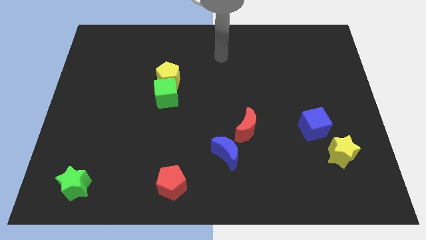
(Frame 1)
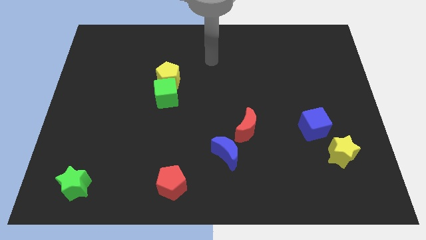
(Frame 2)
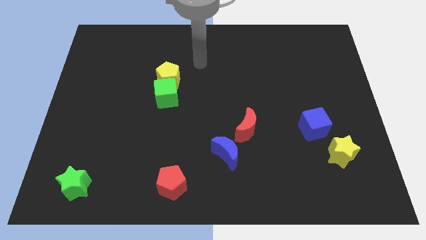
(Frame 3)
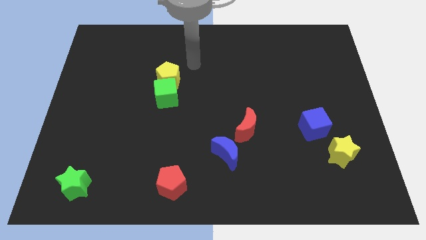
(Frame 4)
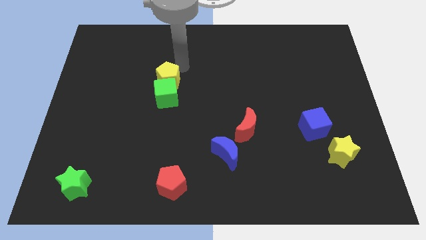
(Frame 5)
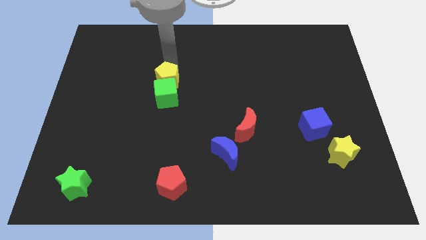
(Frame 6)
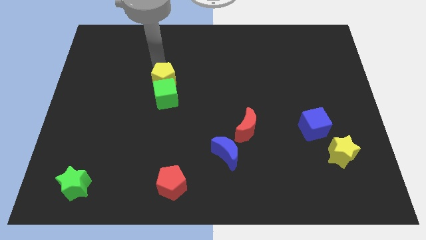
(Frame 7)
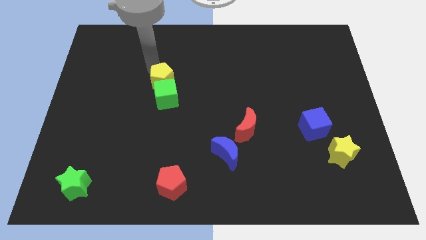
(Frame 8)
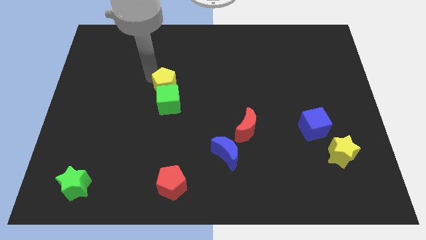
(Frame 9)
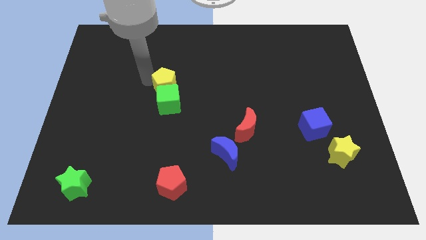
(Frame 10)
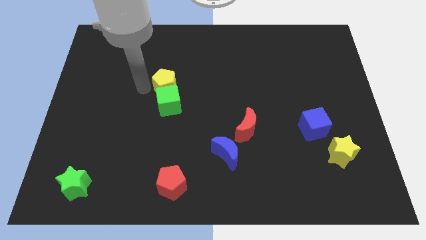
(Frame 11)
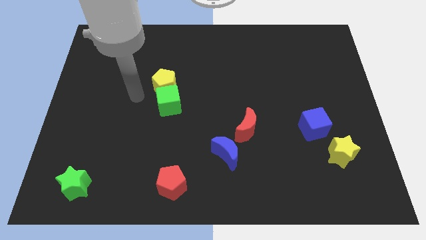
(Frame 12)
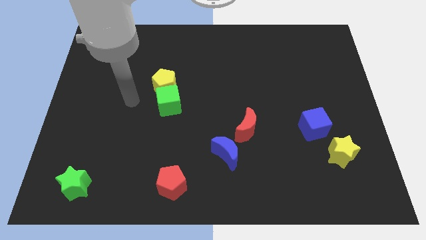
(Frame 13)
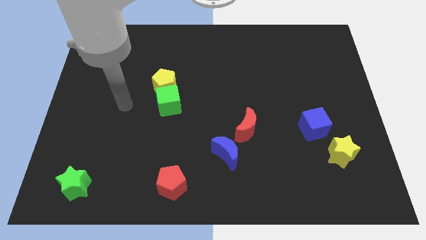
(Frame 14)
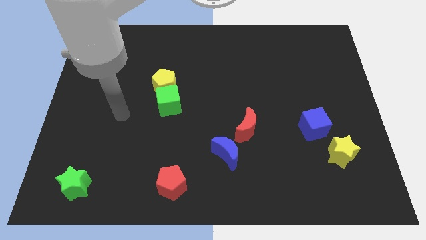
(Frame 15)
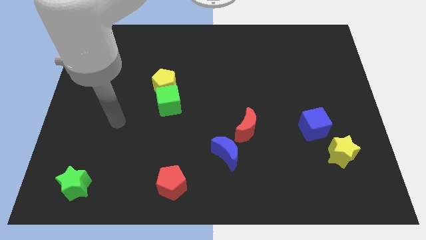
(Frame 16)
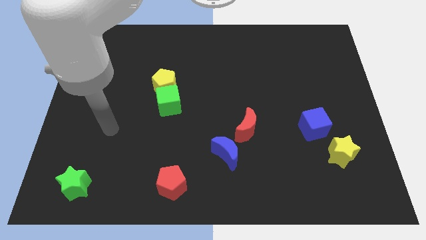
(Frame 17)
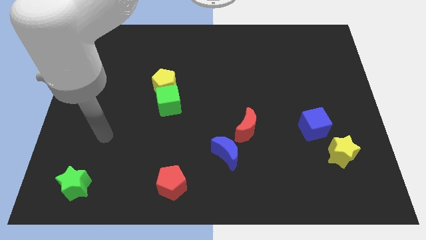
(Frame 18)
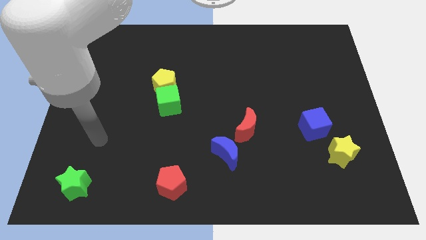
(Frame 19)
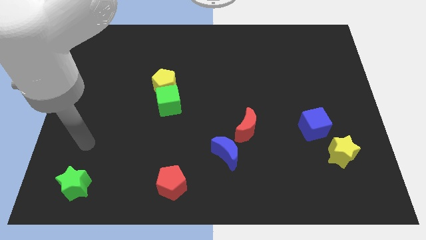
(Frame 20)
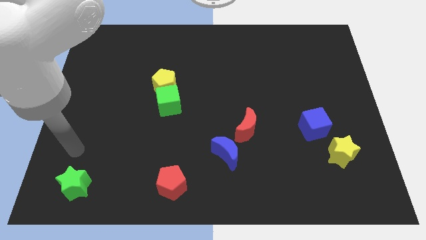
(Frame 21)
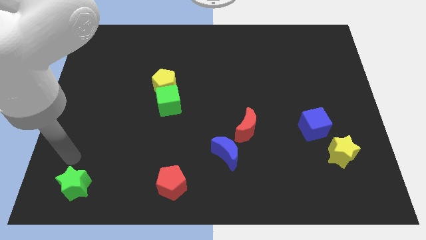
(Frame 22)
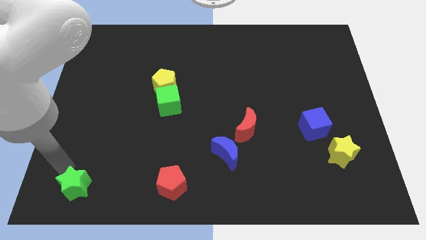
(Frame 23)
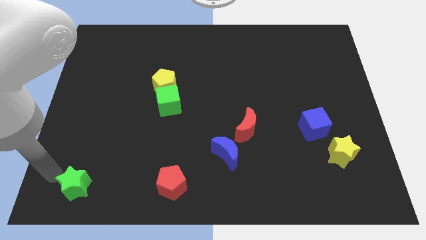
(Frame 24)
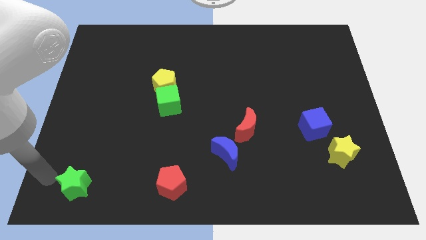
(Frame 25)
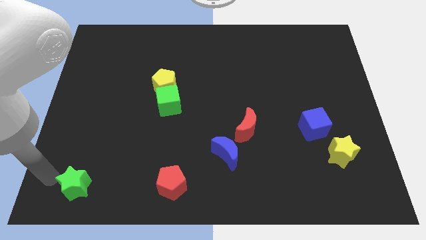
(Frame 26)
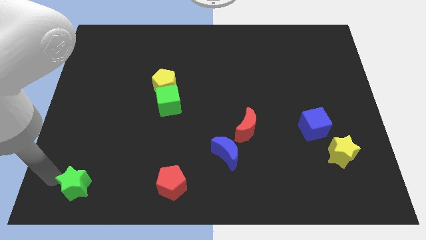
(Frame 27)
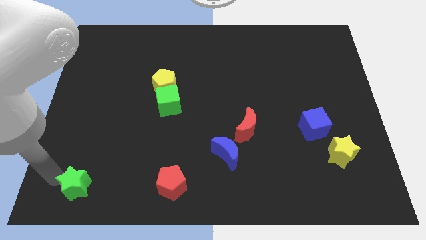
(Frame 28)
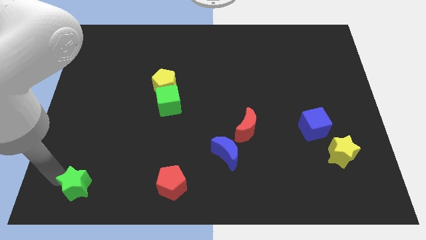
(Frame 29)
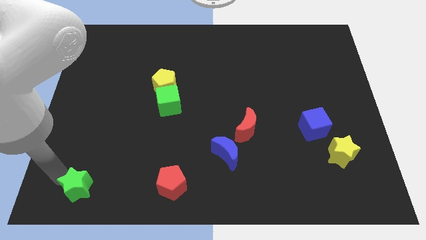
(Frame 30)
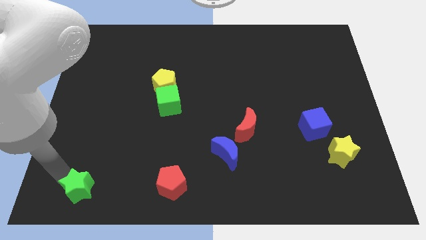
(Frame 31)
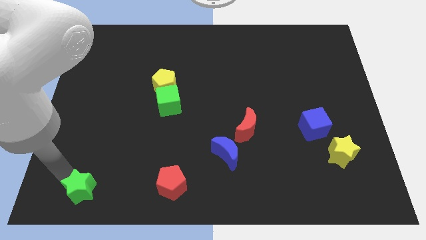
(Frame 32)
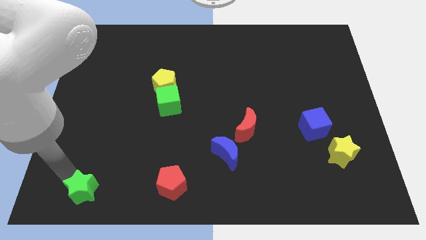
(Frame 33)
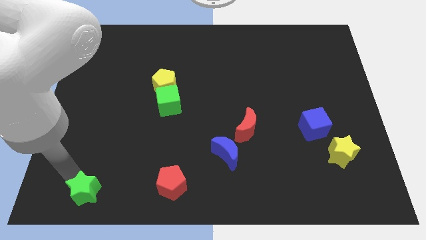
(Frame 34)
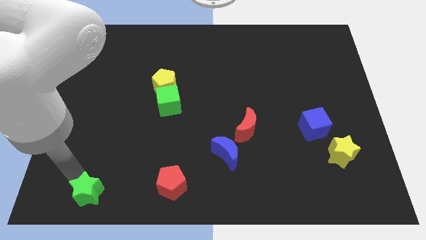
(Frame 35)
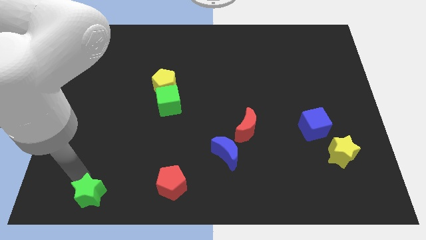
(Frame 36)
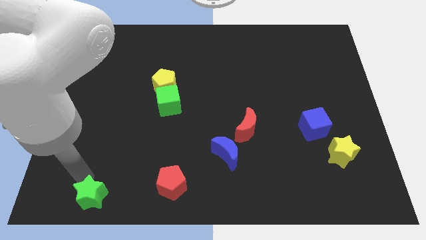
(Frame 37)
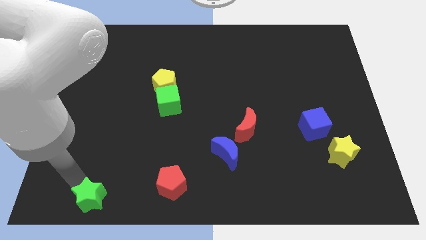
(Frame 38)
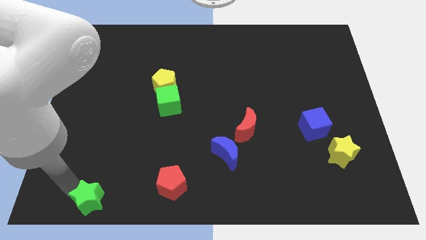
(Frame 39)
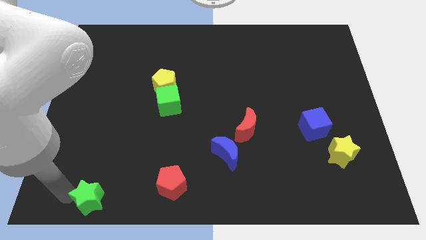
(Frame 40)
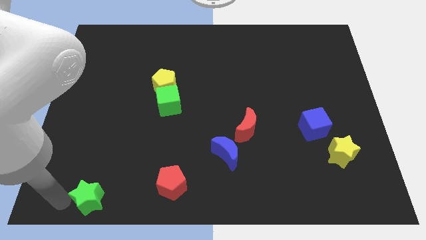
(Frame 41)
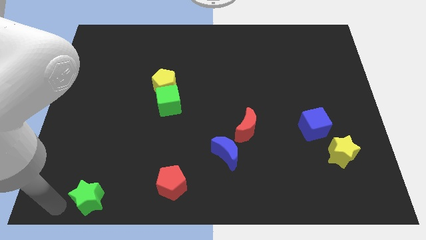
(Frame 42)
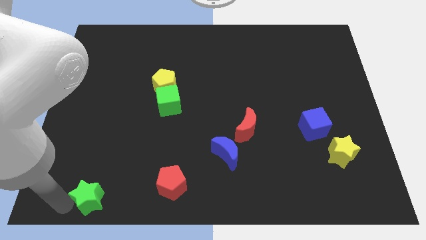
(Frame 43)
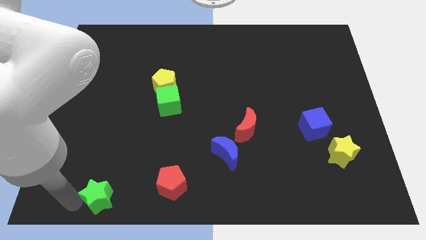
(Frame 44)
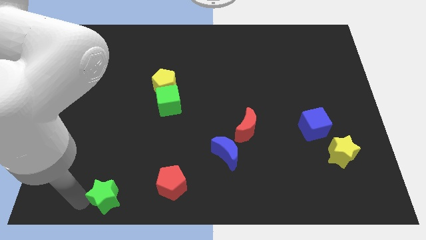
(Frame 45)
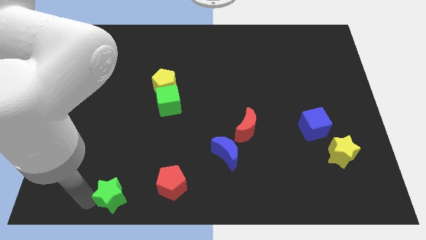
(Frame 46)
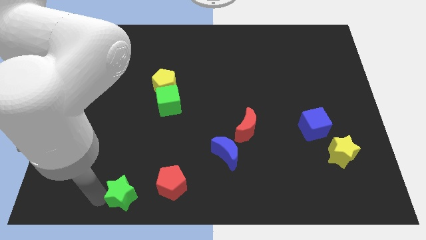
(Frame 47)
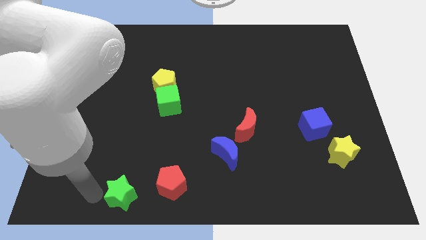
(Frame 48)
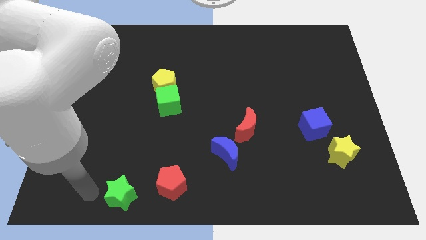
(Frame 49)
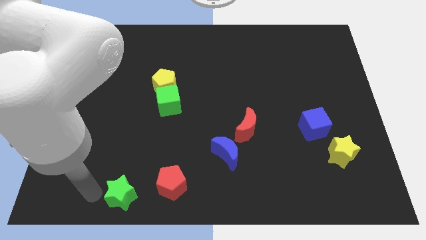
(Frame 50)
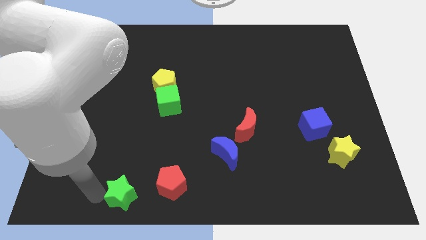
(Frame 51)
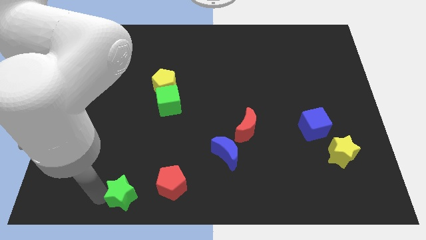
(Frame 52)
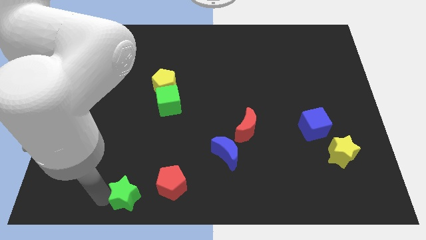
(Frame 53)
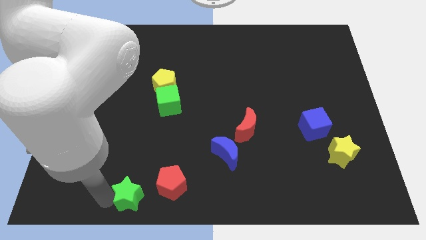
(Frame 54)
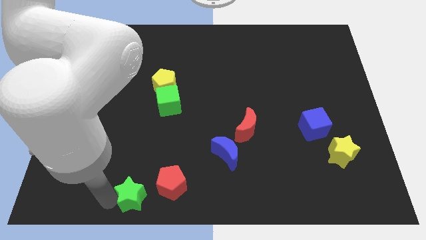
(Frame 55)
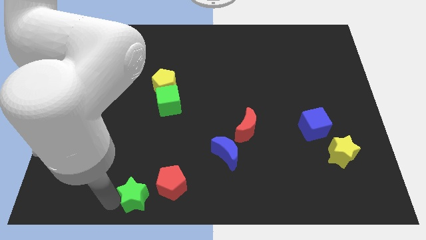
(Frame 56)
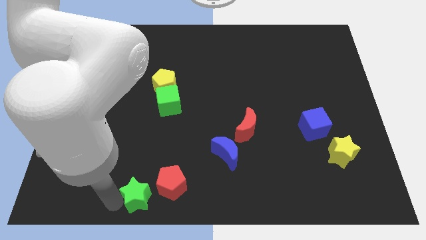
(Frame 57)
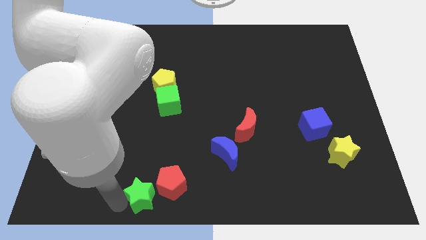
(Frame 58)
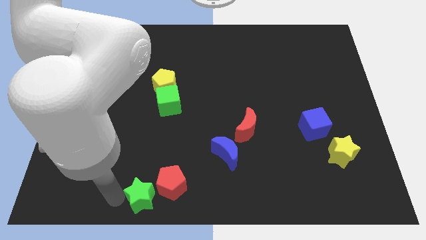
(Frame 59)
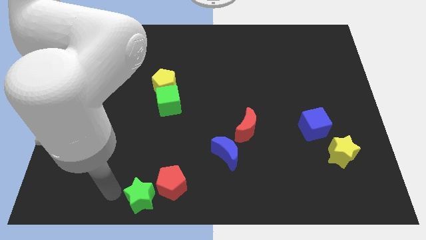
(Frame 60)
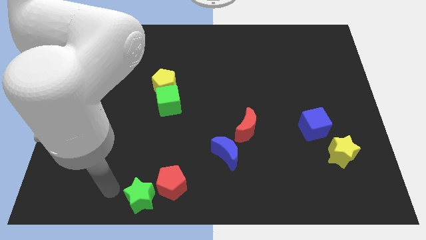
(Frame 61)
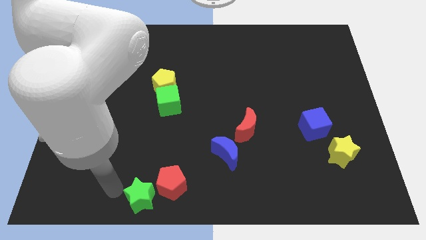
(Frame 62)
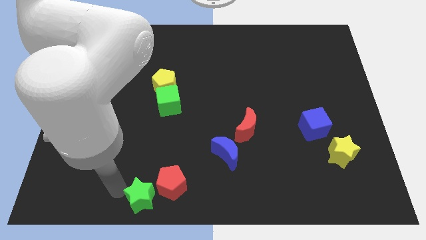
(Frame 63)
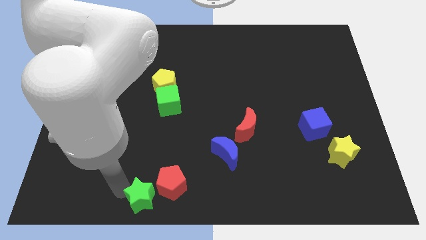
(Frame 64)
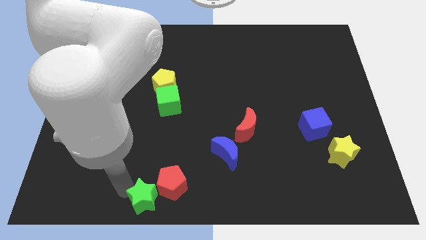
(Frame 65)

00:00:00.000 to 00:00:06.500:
put the green star to the bottom
